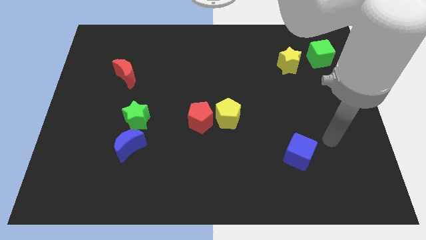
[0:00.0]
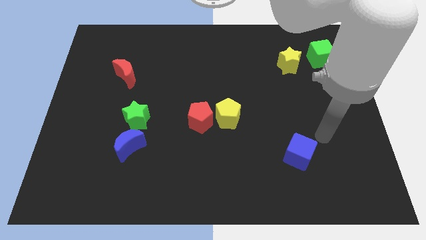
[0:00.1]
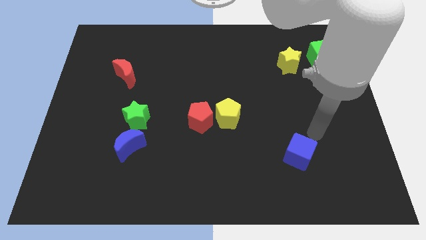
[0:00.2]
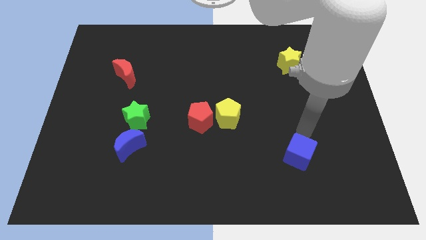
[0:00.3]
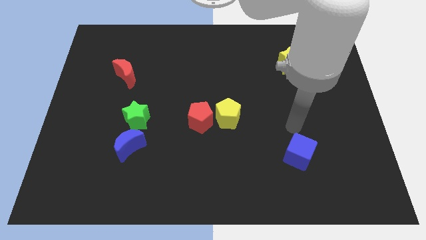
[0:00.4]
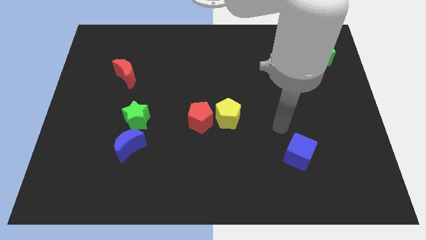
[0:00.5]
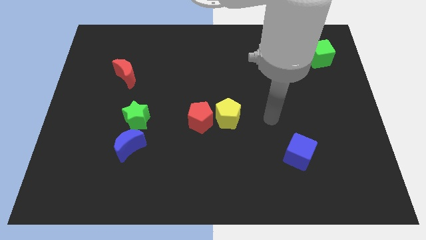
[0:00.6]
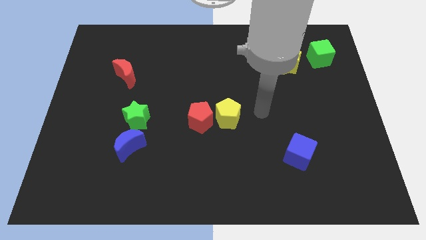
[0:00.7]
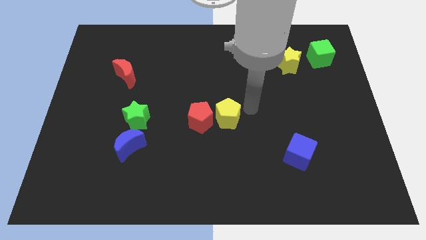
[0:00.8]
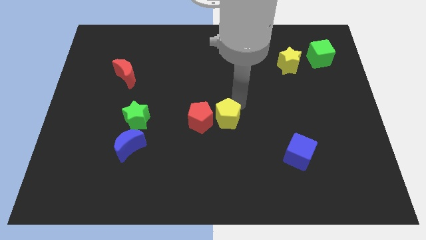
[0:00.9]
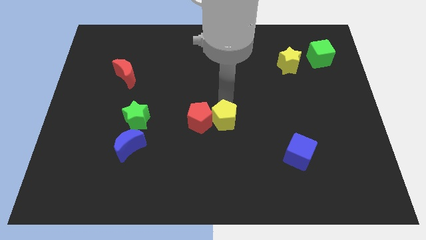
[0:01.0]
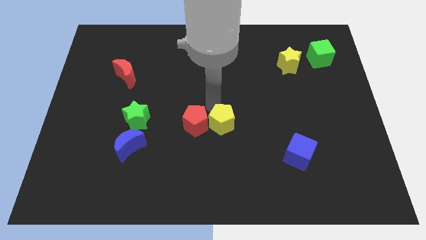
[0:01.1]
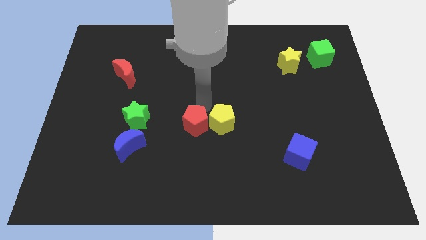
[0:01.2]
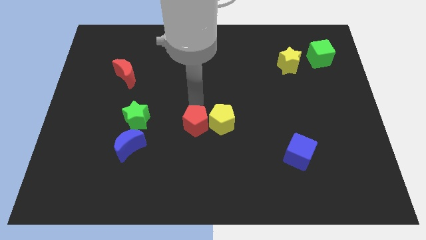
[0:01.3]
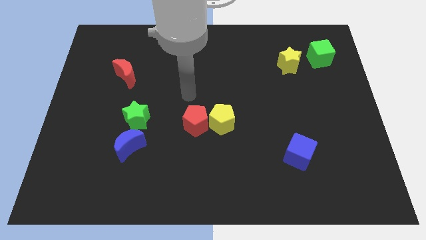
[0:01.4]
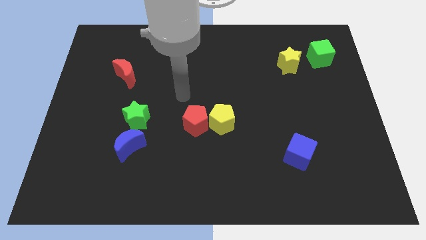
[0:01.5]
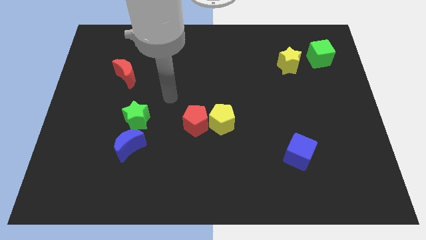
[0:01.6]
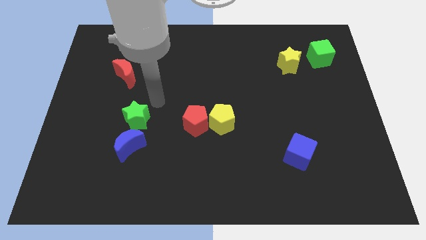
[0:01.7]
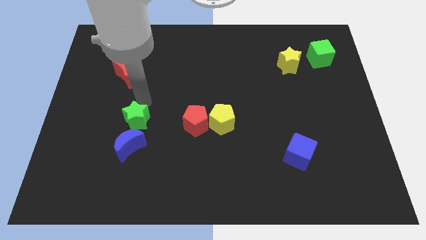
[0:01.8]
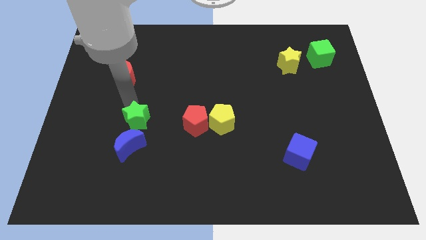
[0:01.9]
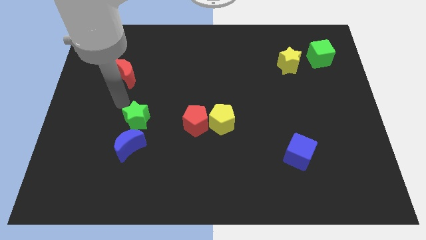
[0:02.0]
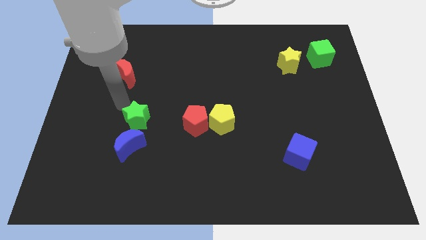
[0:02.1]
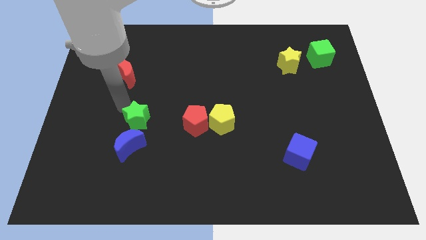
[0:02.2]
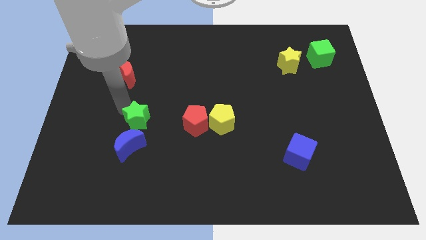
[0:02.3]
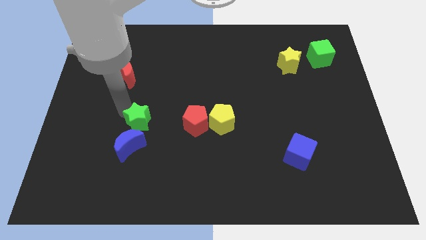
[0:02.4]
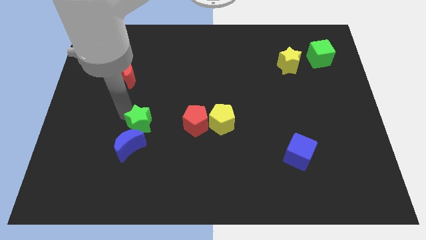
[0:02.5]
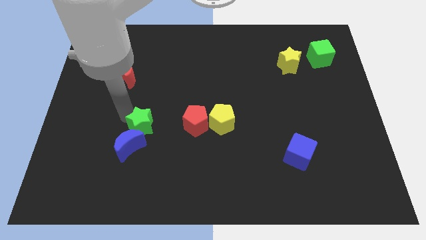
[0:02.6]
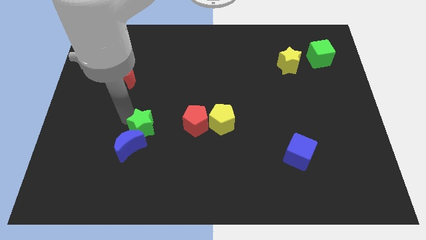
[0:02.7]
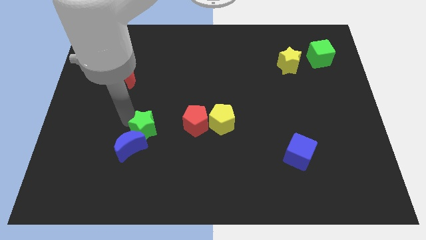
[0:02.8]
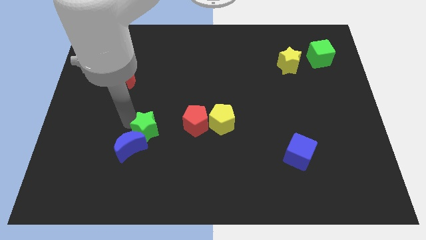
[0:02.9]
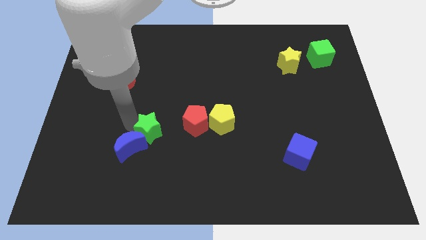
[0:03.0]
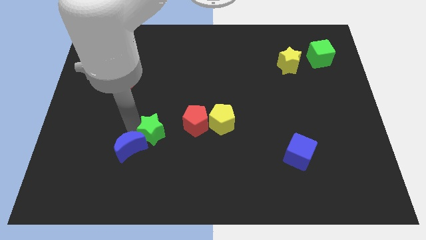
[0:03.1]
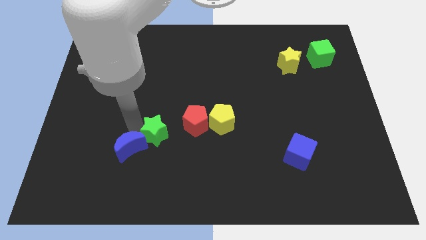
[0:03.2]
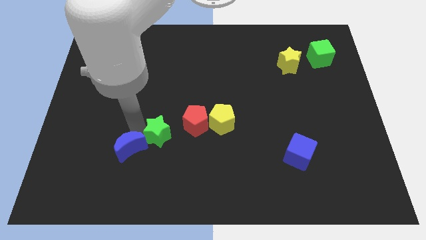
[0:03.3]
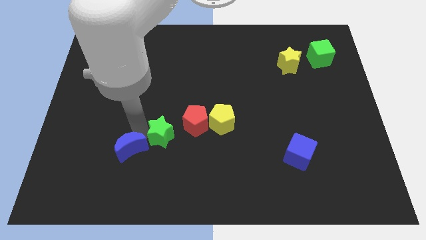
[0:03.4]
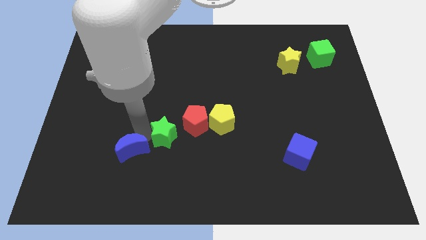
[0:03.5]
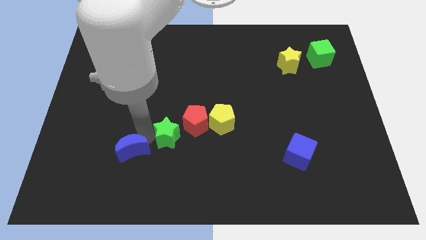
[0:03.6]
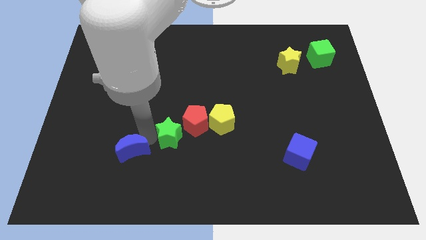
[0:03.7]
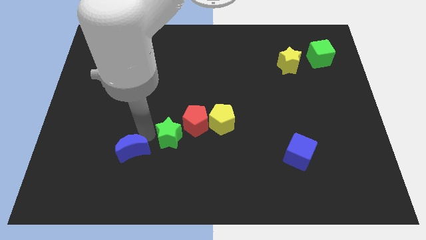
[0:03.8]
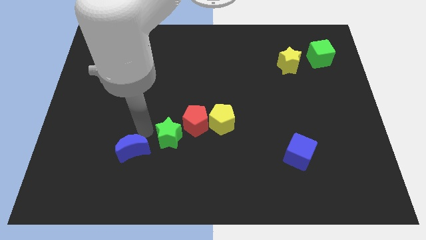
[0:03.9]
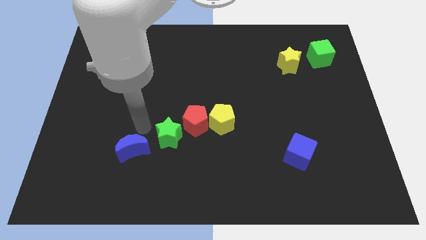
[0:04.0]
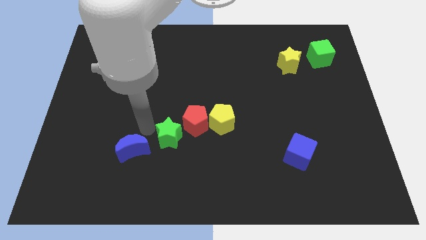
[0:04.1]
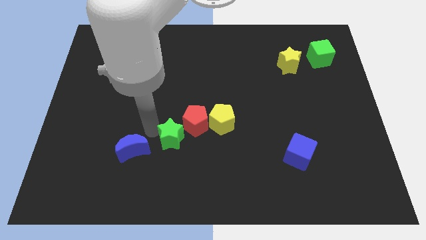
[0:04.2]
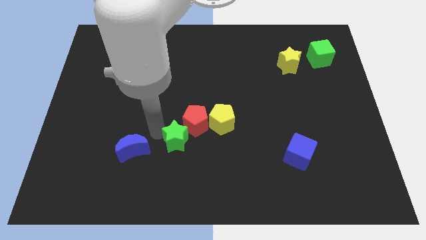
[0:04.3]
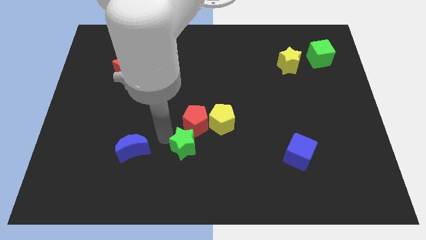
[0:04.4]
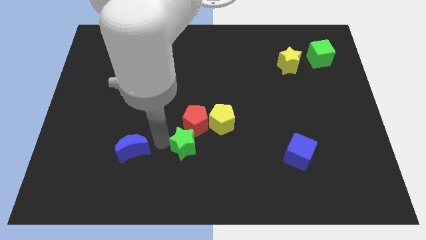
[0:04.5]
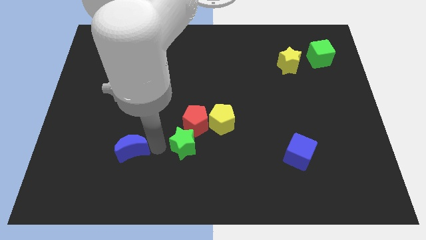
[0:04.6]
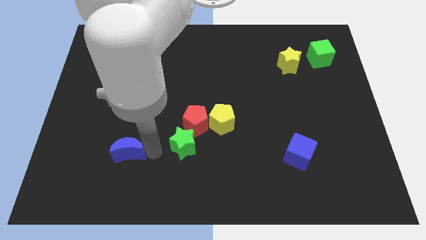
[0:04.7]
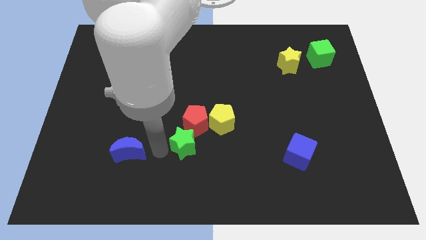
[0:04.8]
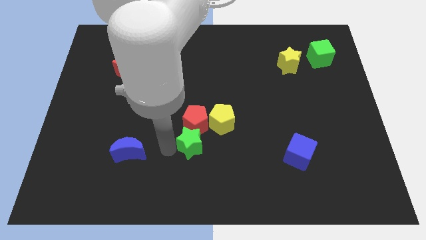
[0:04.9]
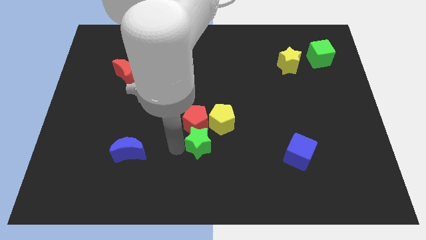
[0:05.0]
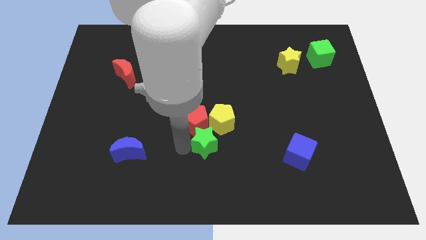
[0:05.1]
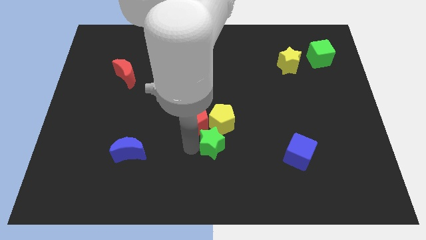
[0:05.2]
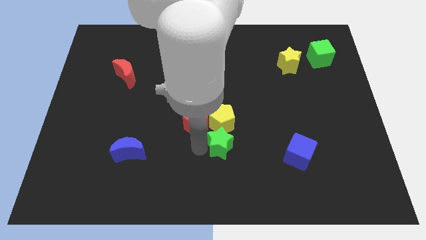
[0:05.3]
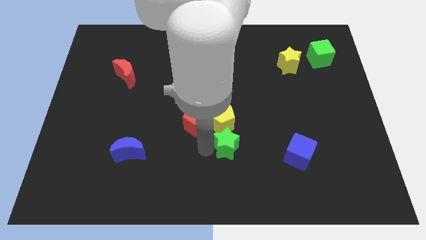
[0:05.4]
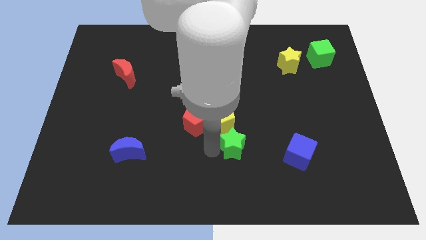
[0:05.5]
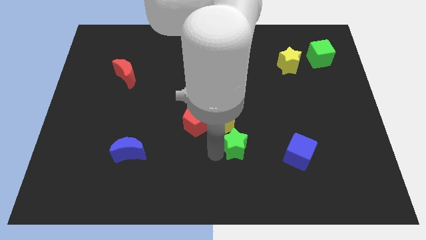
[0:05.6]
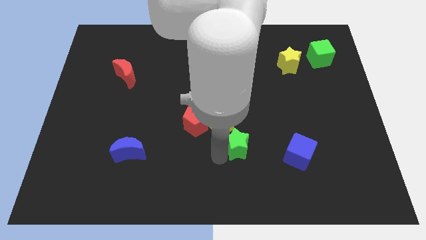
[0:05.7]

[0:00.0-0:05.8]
move the green star right

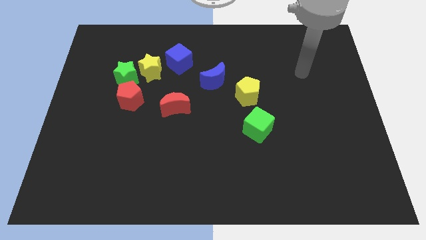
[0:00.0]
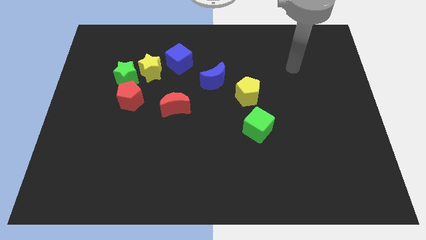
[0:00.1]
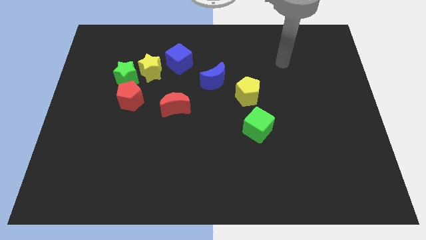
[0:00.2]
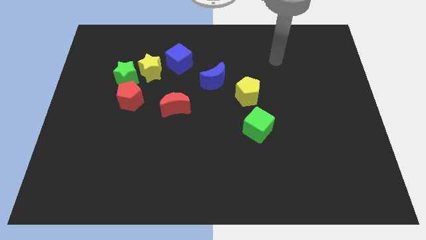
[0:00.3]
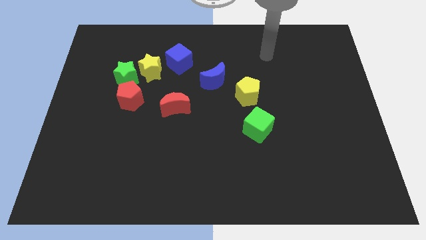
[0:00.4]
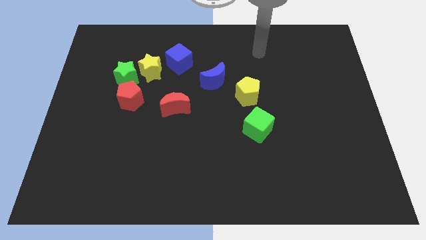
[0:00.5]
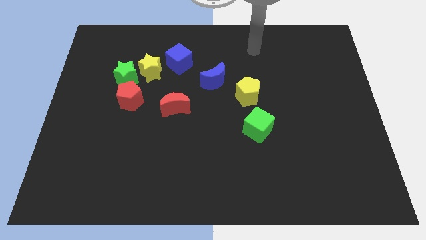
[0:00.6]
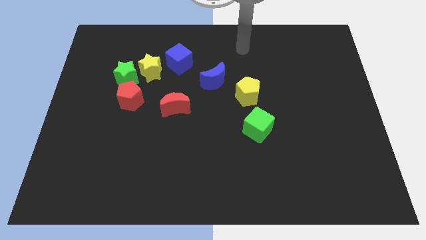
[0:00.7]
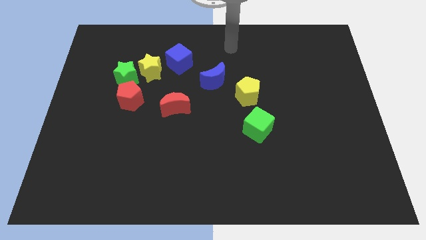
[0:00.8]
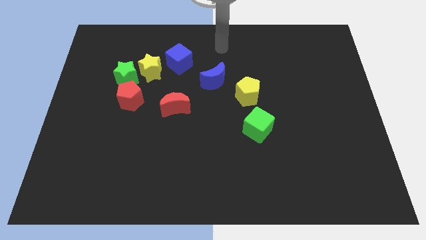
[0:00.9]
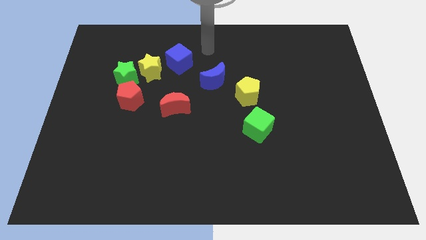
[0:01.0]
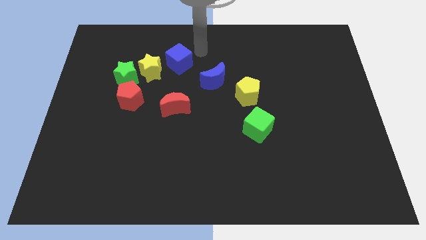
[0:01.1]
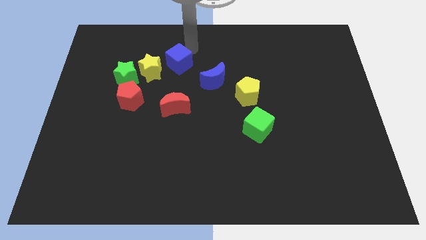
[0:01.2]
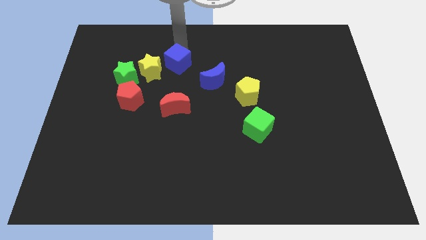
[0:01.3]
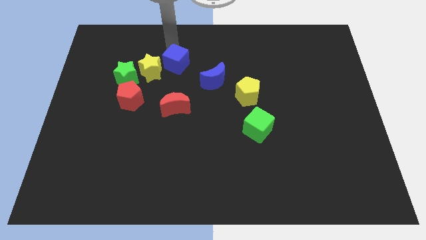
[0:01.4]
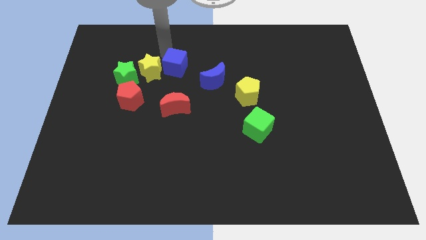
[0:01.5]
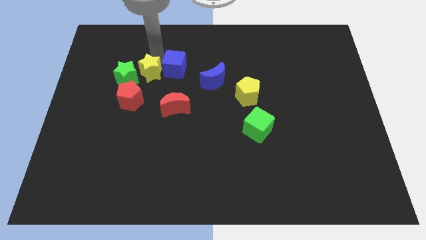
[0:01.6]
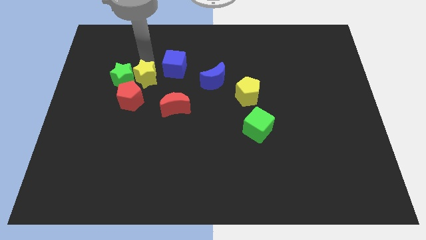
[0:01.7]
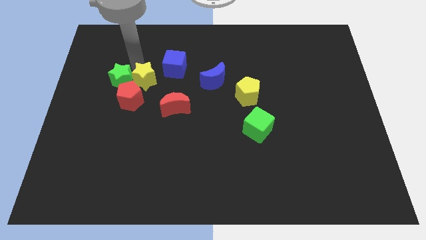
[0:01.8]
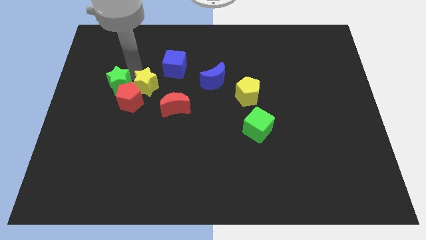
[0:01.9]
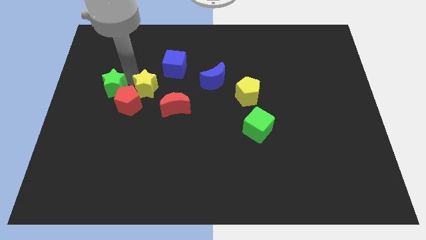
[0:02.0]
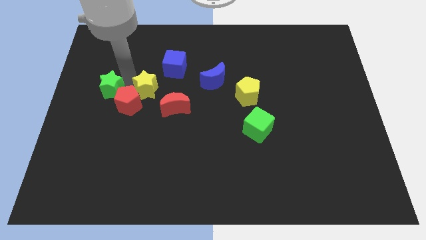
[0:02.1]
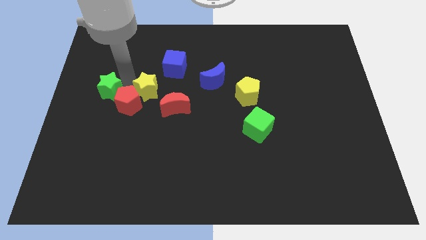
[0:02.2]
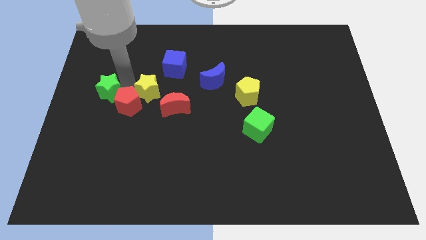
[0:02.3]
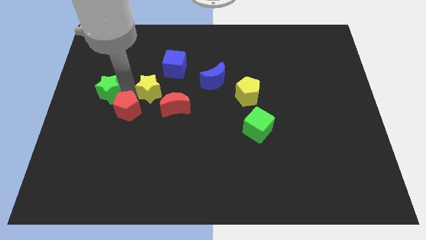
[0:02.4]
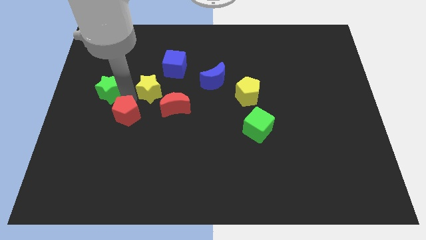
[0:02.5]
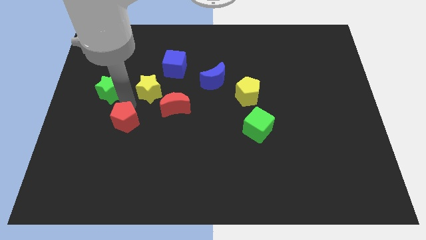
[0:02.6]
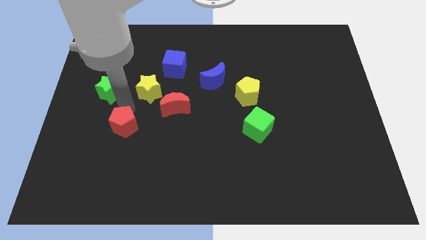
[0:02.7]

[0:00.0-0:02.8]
slide the red pentagon somewhat downwards
